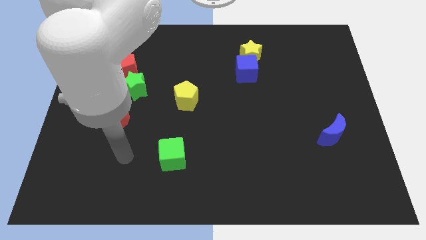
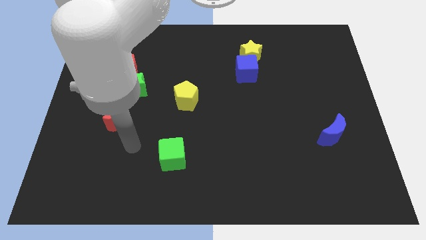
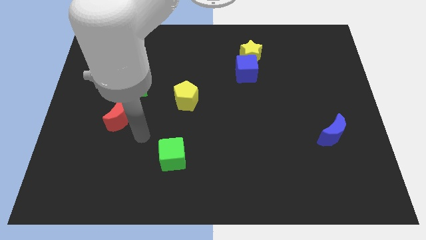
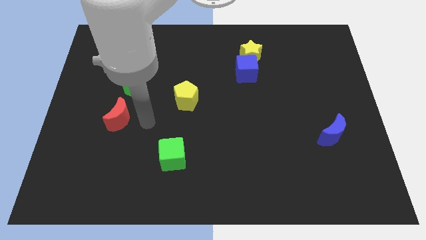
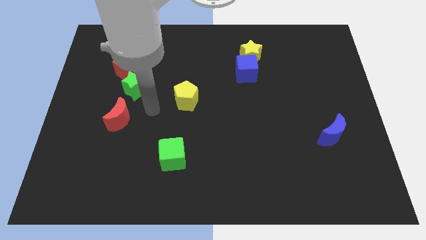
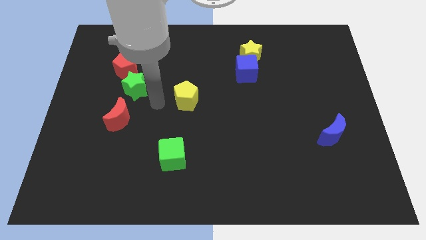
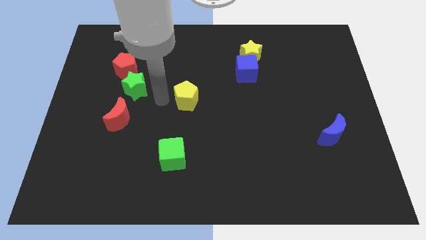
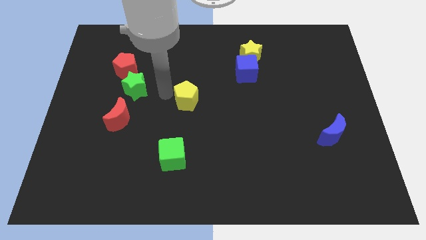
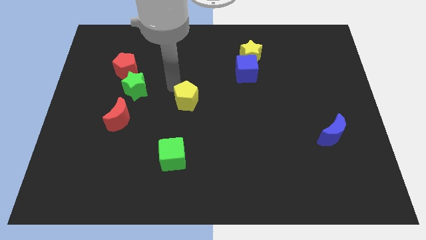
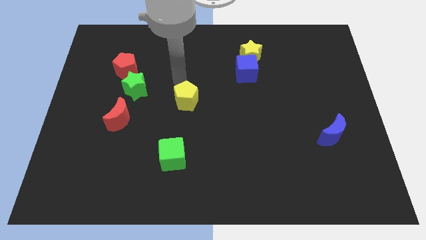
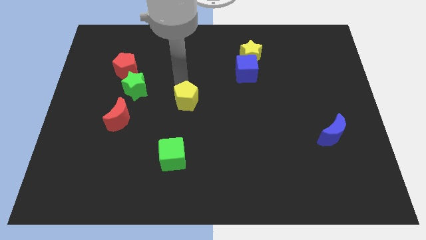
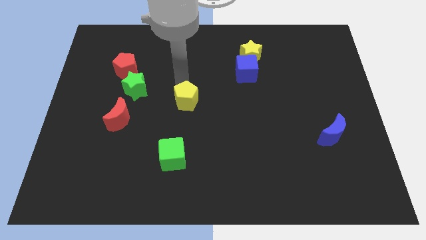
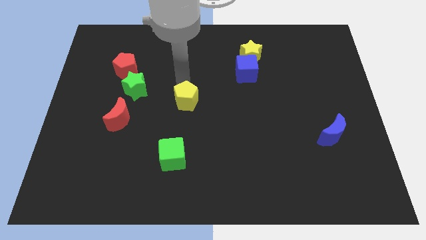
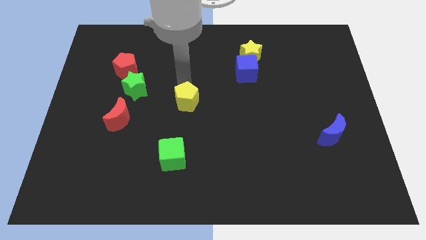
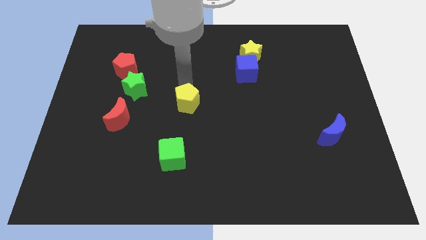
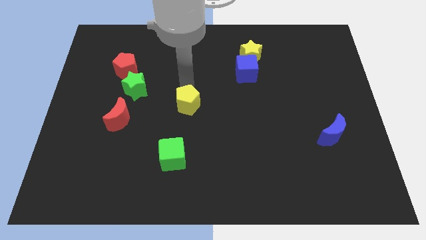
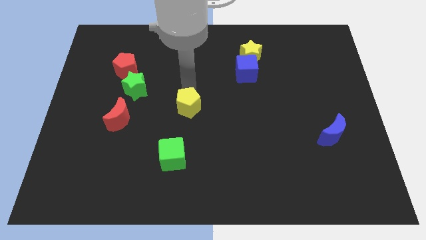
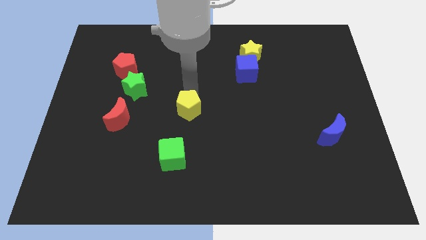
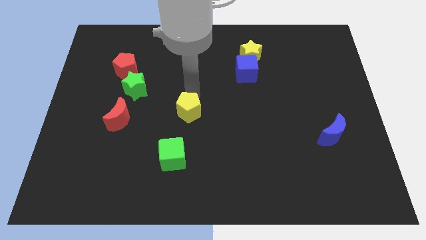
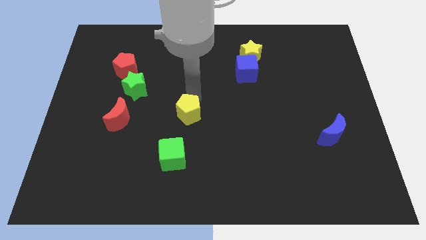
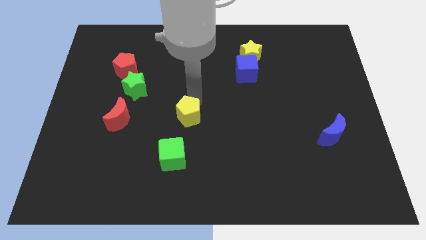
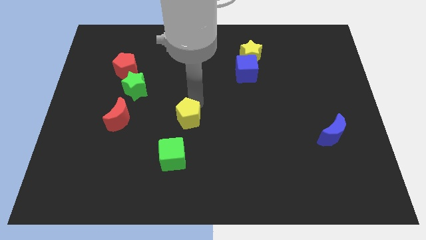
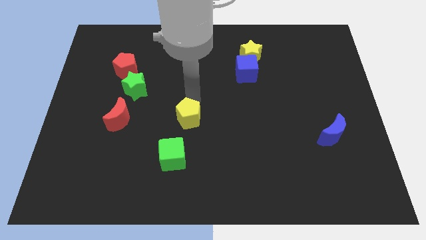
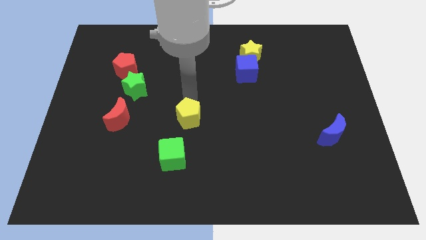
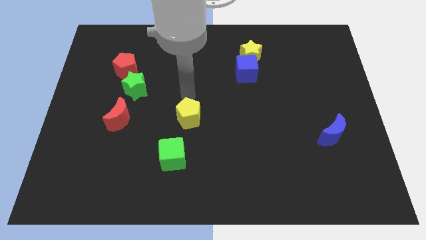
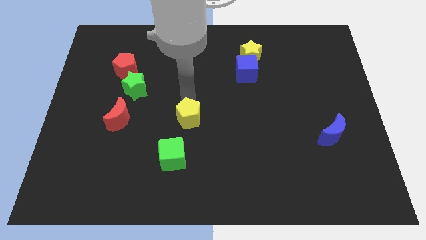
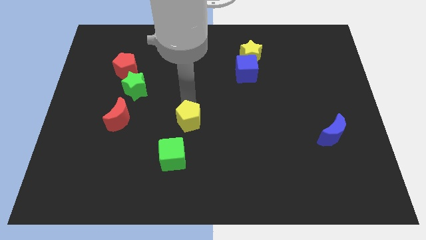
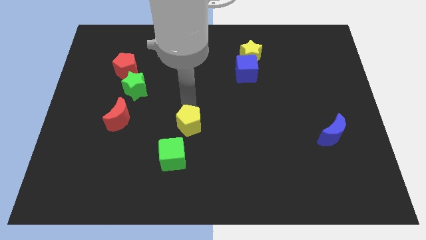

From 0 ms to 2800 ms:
slide the yellow pentagon somewhat downwards

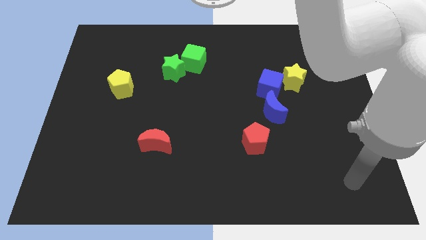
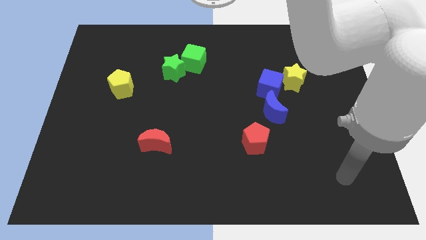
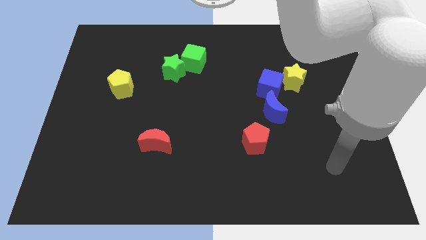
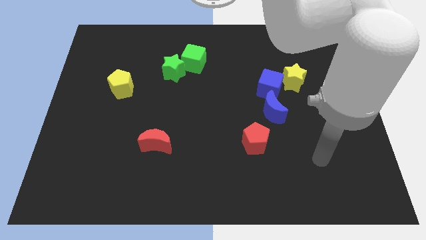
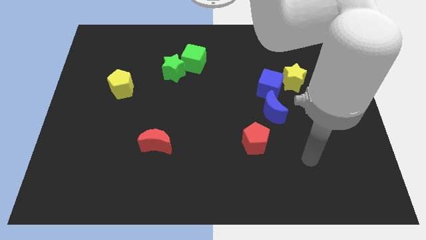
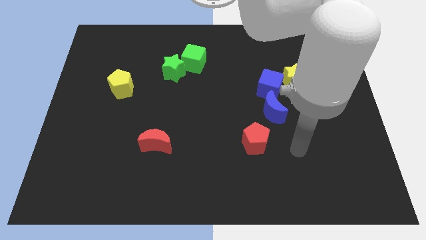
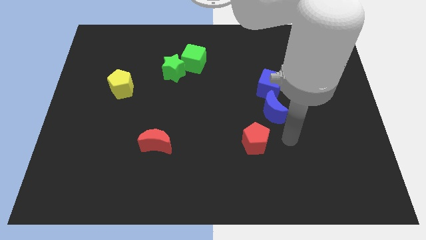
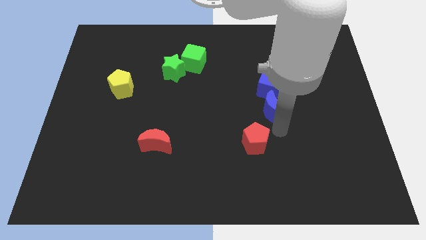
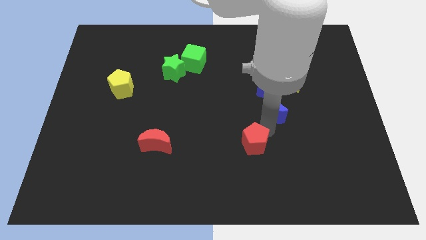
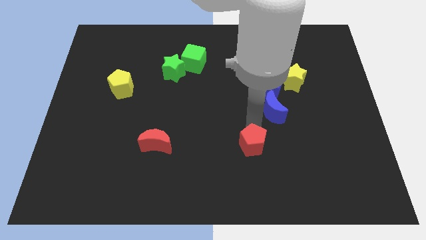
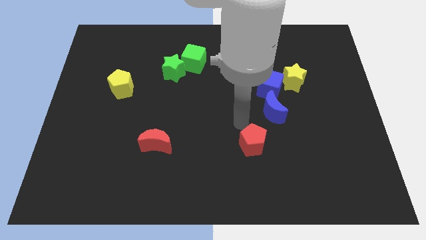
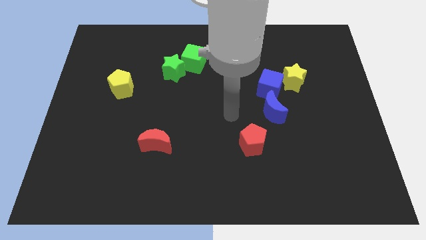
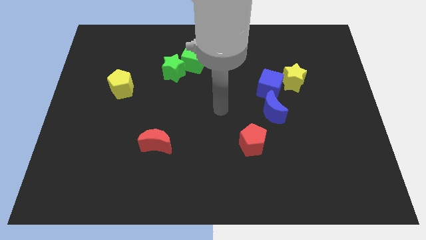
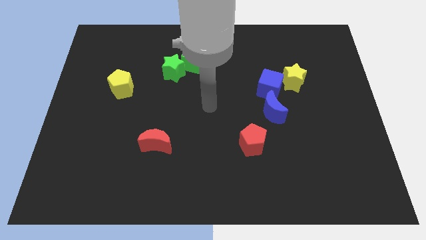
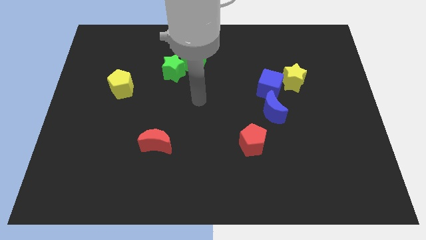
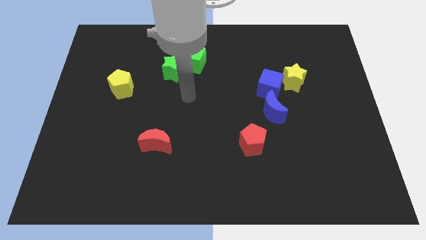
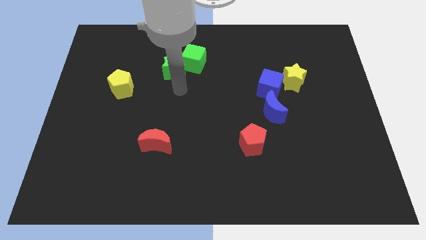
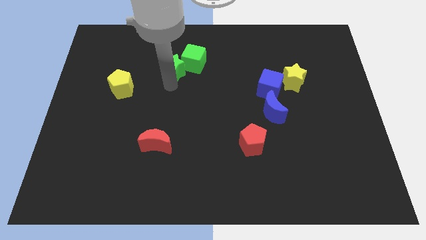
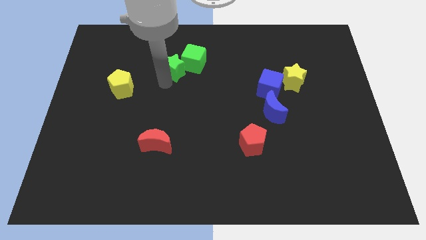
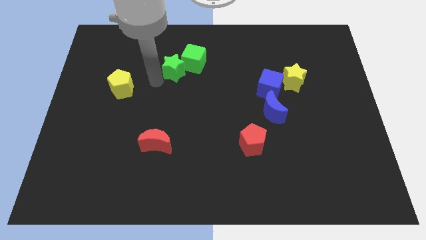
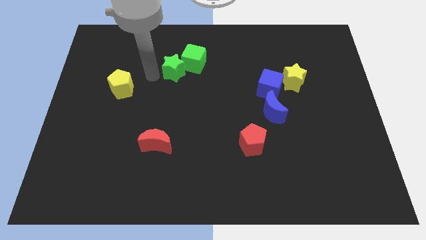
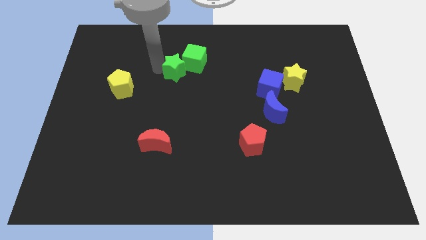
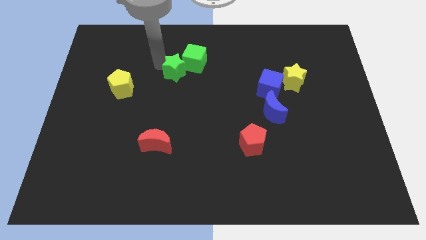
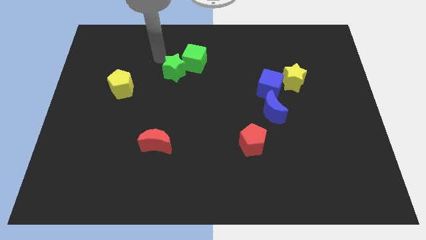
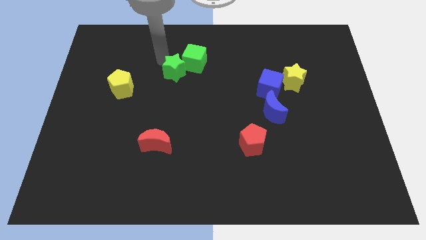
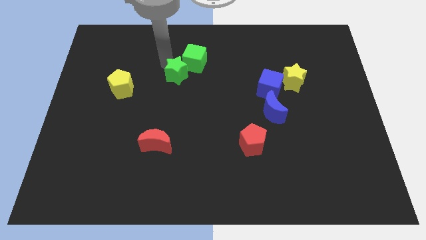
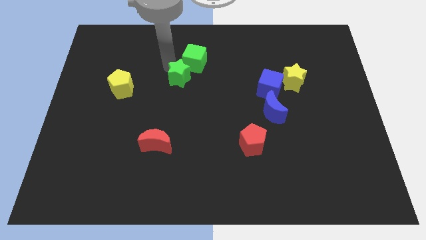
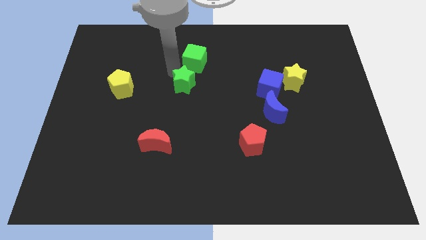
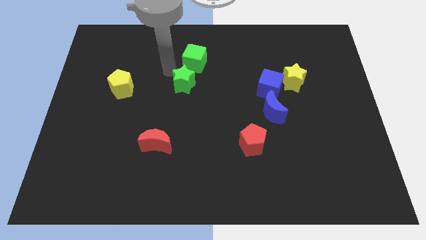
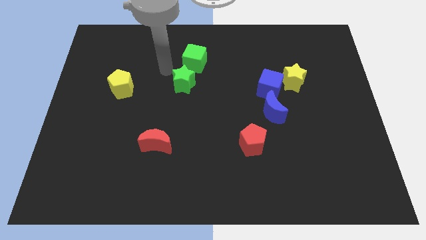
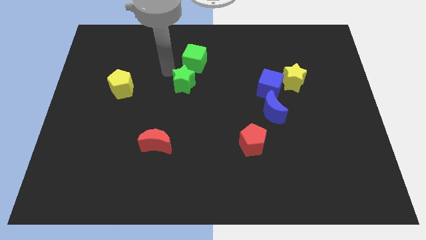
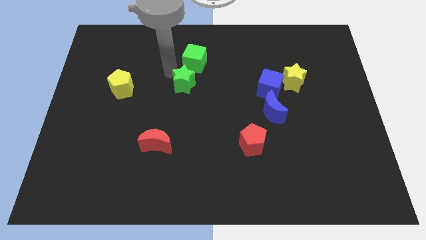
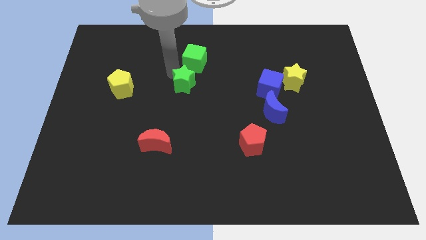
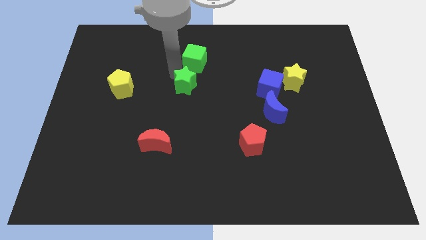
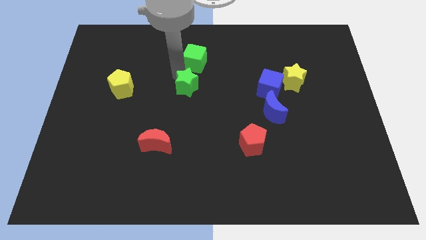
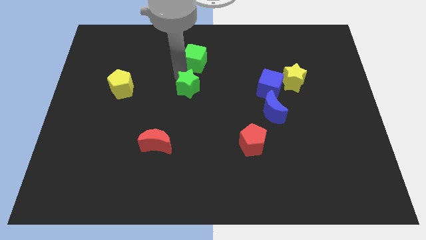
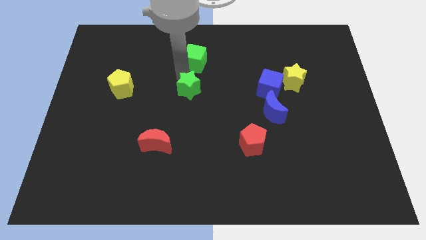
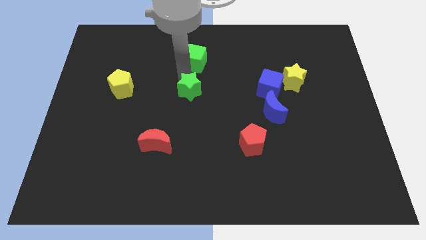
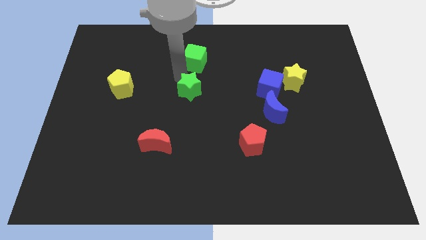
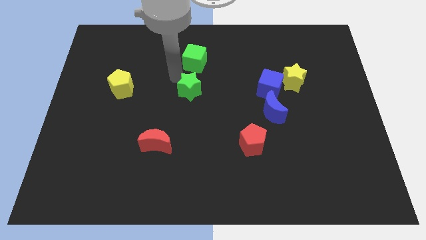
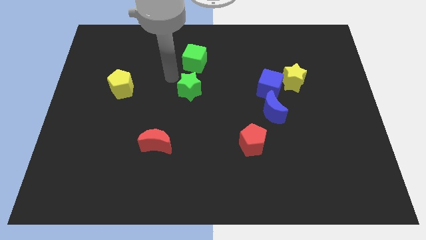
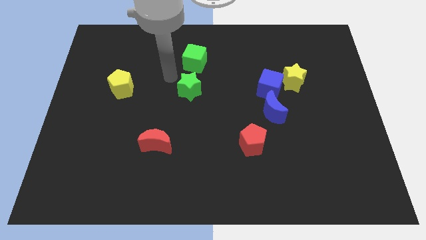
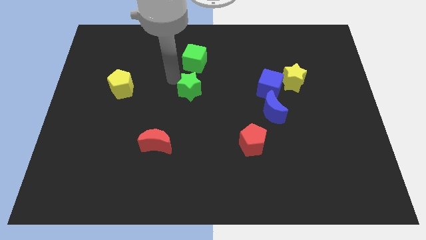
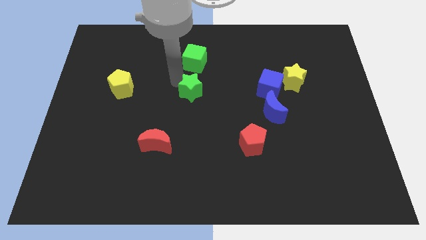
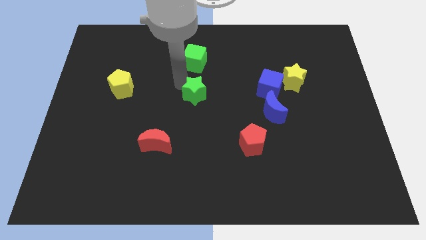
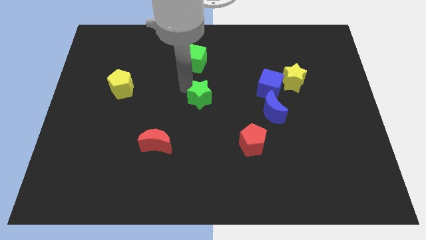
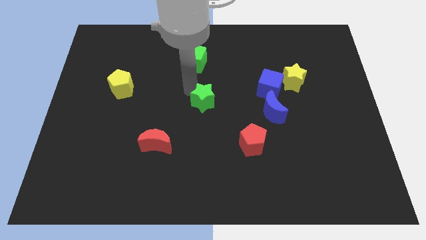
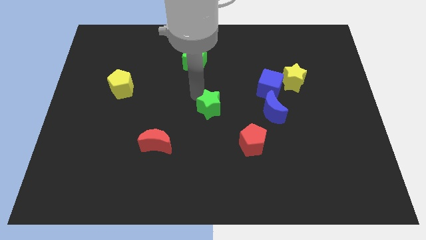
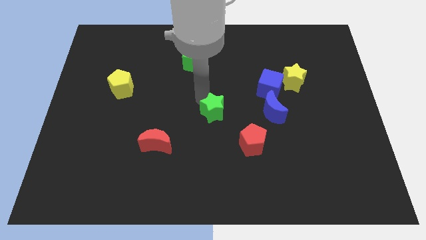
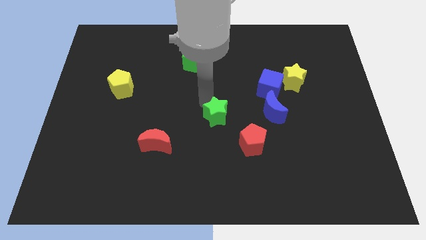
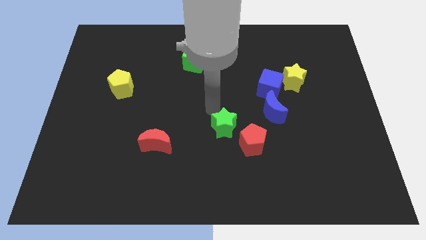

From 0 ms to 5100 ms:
move the green star down and to the right diagonally
